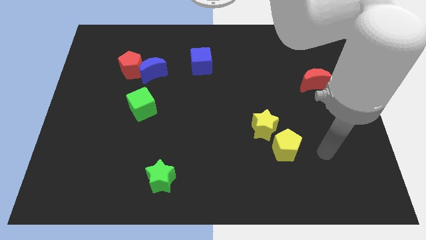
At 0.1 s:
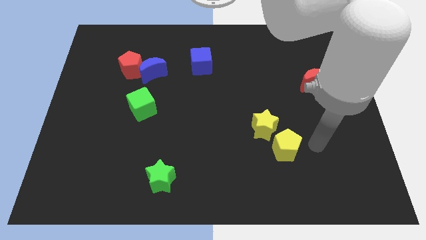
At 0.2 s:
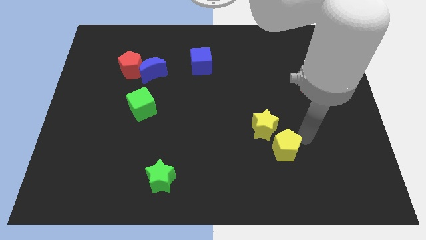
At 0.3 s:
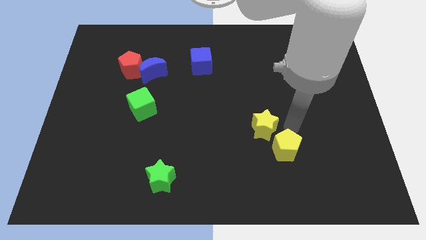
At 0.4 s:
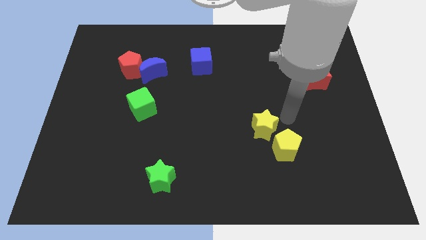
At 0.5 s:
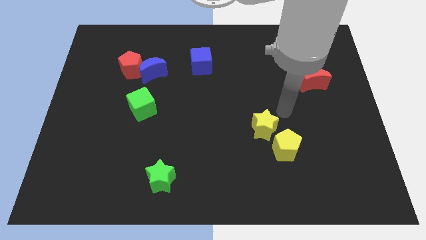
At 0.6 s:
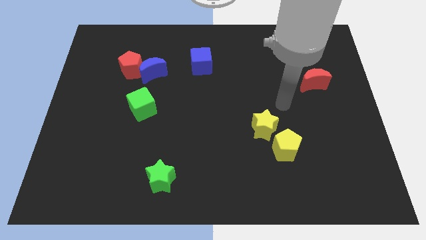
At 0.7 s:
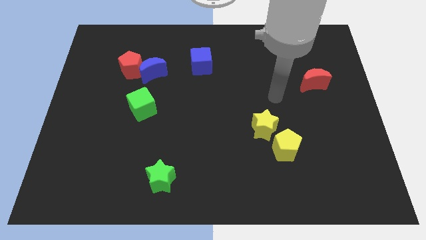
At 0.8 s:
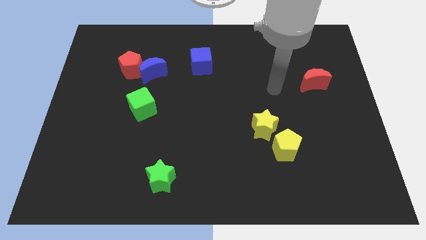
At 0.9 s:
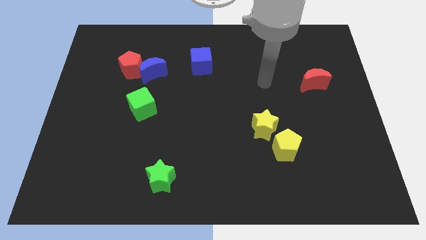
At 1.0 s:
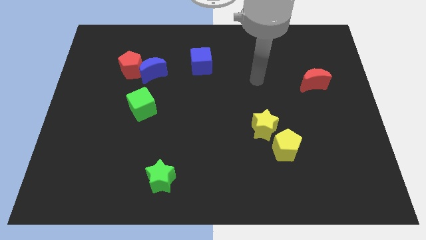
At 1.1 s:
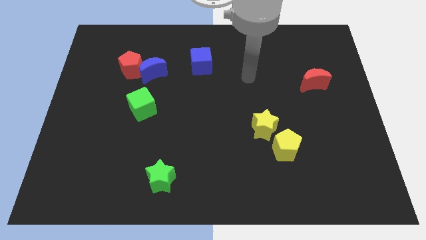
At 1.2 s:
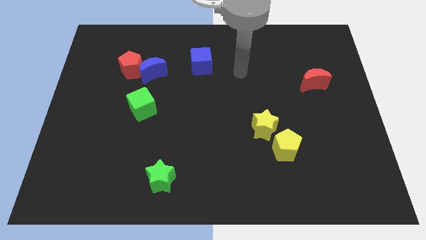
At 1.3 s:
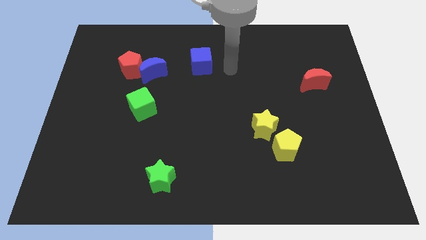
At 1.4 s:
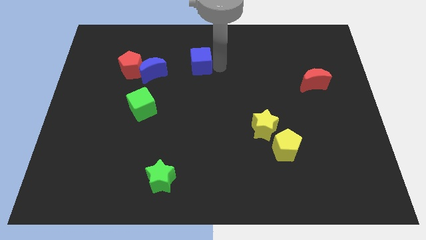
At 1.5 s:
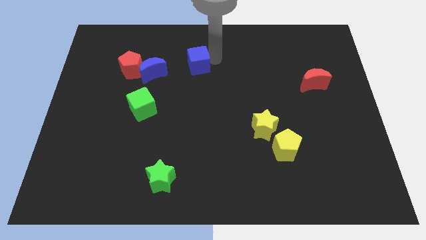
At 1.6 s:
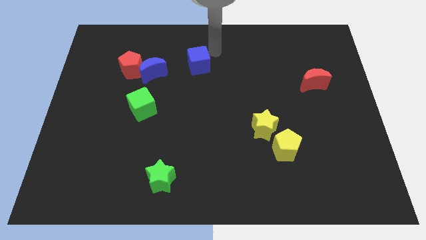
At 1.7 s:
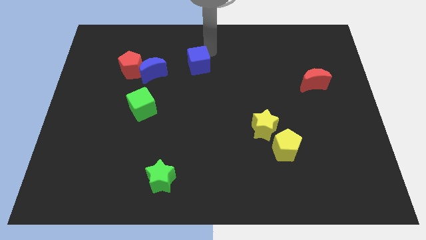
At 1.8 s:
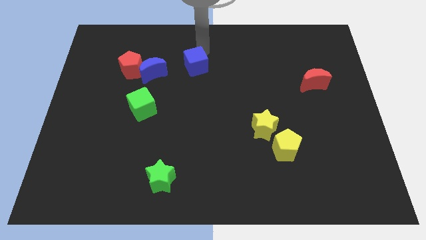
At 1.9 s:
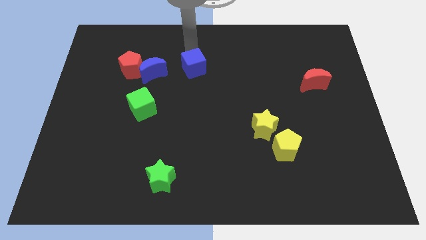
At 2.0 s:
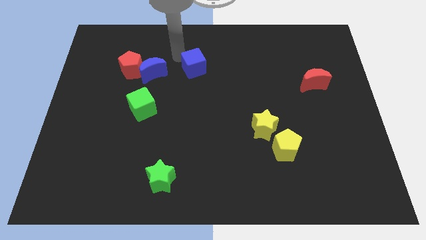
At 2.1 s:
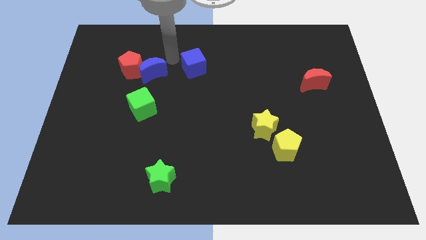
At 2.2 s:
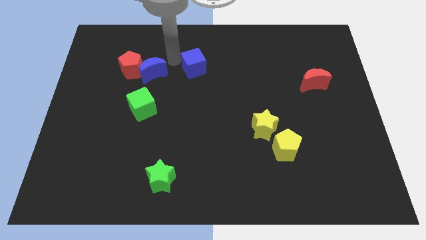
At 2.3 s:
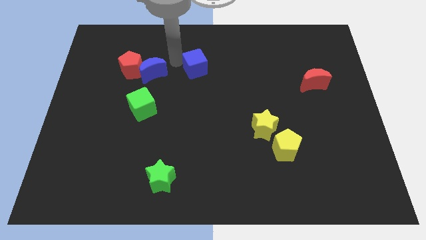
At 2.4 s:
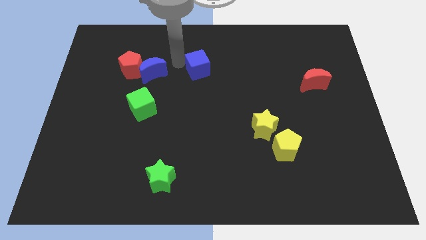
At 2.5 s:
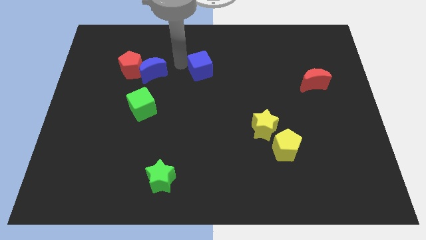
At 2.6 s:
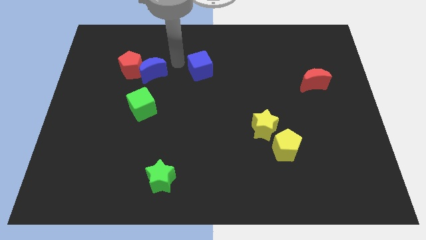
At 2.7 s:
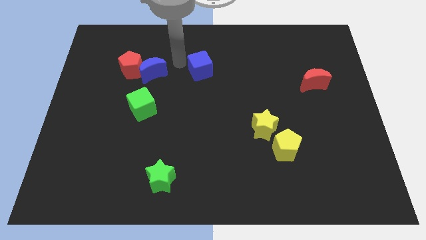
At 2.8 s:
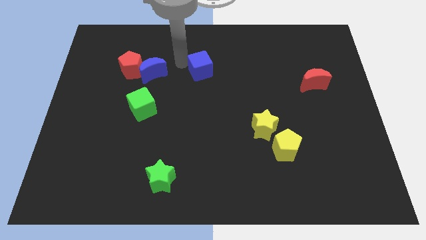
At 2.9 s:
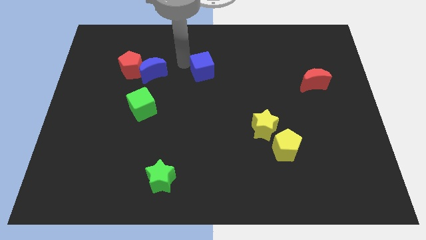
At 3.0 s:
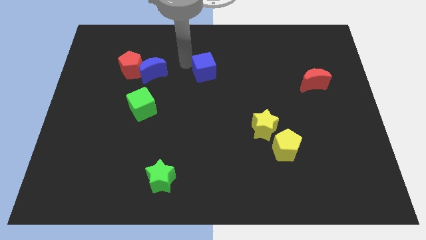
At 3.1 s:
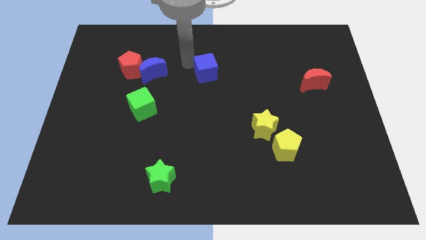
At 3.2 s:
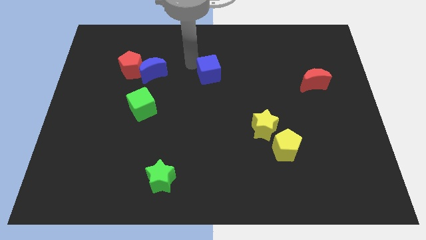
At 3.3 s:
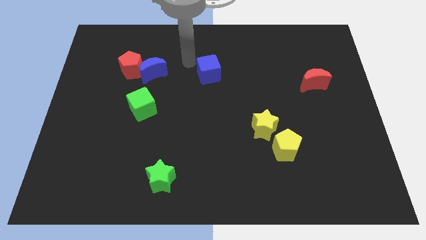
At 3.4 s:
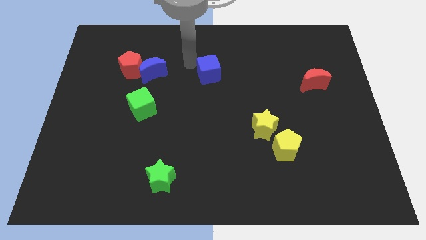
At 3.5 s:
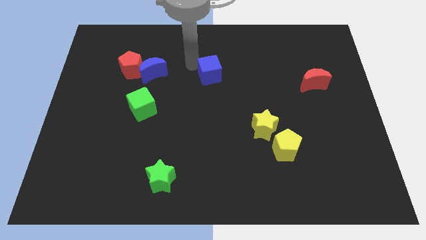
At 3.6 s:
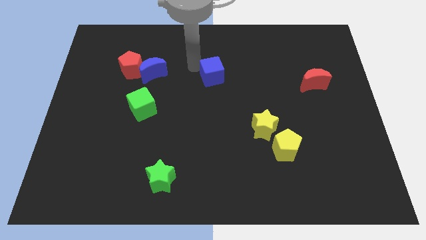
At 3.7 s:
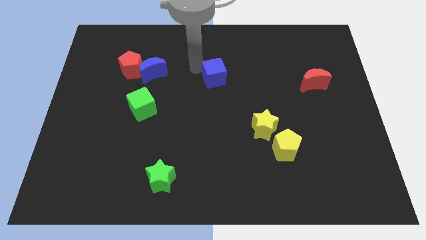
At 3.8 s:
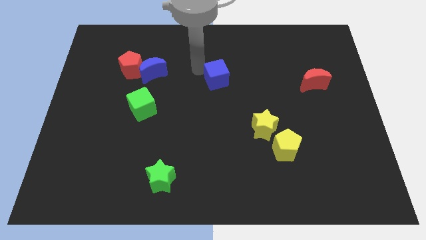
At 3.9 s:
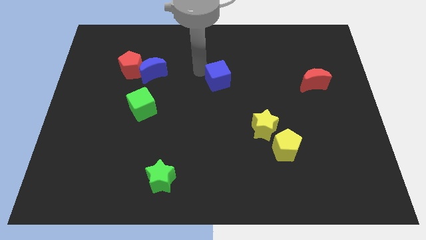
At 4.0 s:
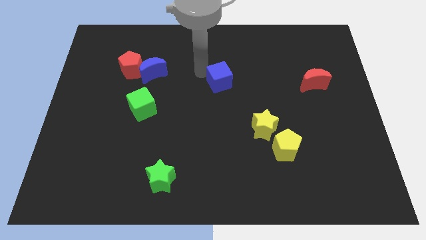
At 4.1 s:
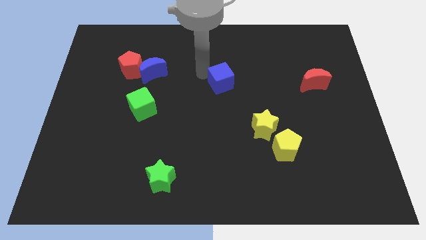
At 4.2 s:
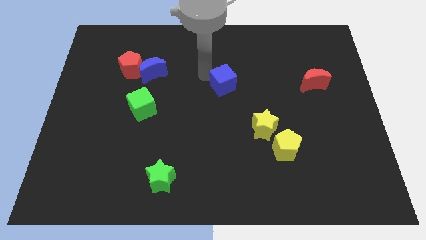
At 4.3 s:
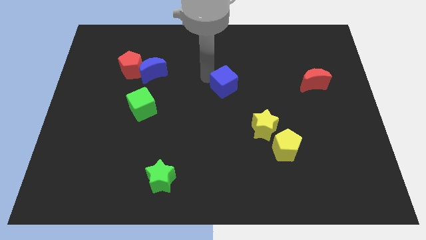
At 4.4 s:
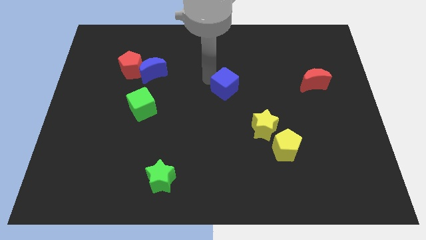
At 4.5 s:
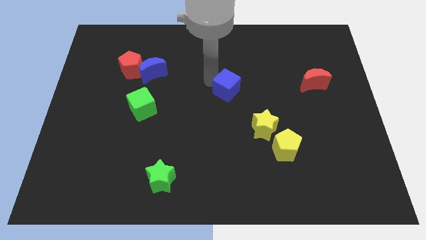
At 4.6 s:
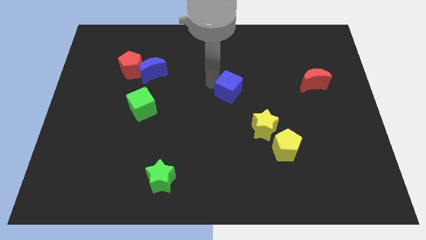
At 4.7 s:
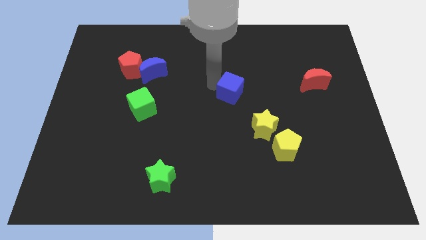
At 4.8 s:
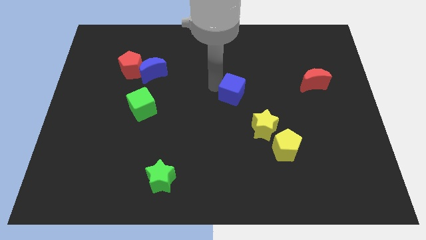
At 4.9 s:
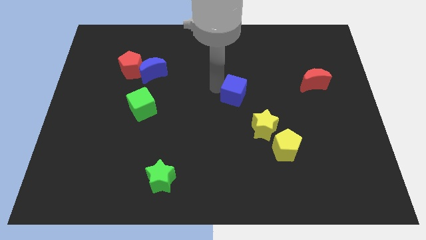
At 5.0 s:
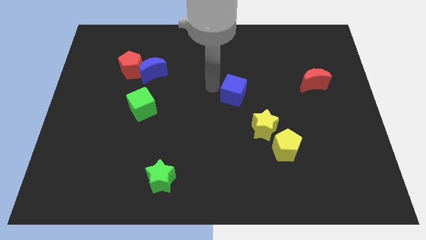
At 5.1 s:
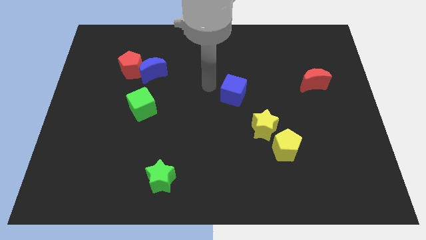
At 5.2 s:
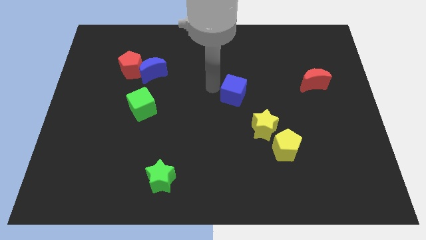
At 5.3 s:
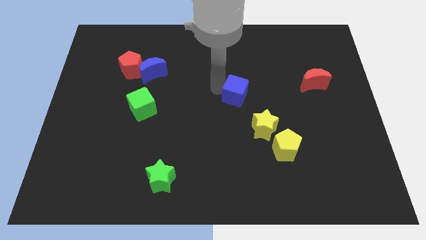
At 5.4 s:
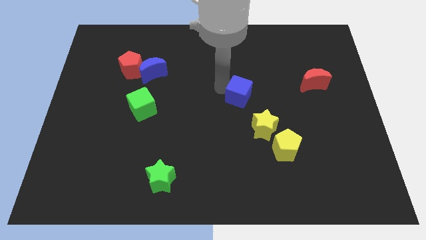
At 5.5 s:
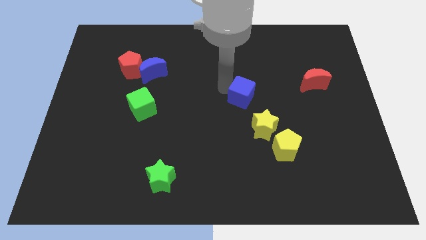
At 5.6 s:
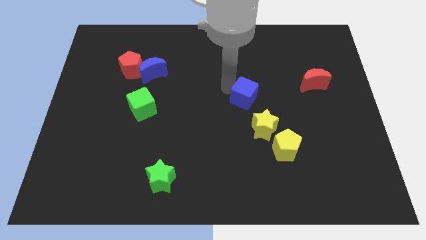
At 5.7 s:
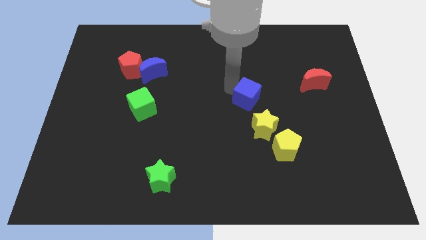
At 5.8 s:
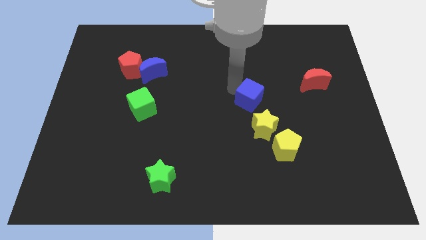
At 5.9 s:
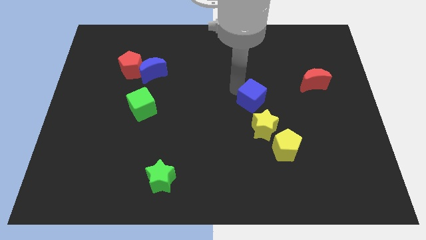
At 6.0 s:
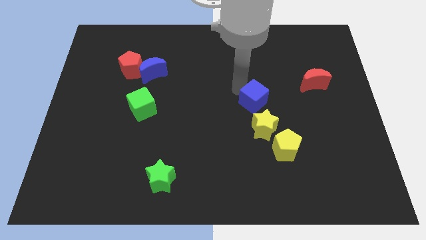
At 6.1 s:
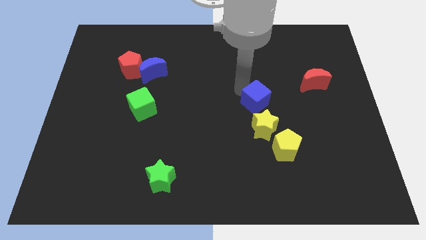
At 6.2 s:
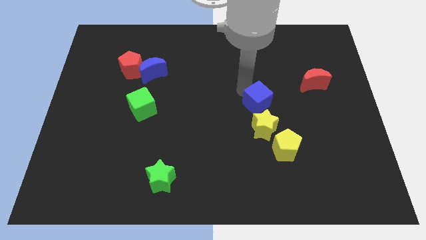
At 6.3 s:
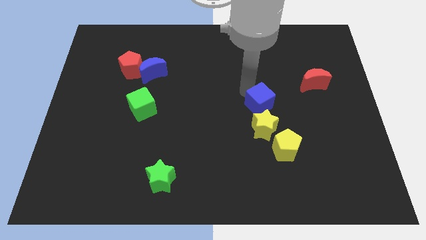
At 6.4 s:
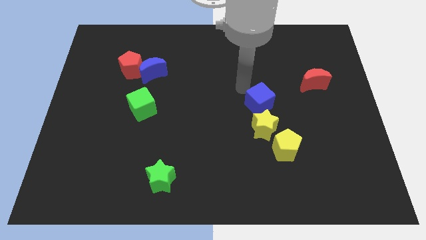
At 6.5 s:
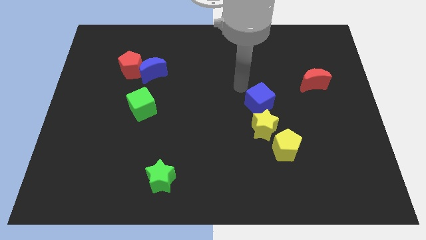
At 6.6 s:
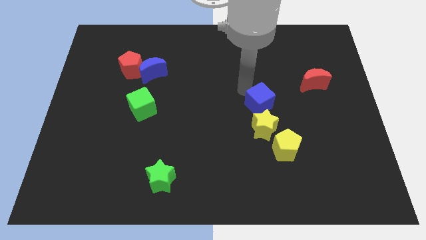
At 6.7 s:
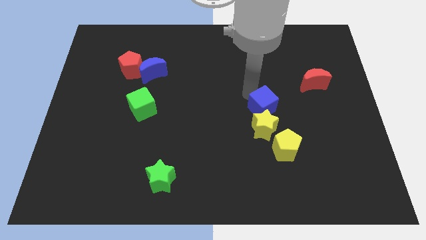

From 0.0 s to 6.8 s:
push the blue cube diagonally down and right

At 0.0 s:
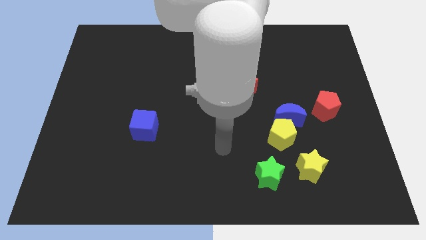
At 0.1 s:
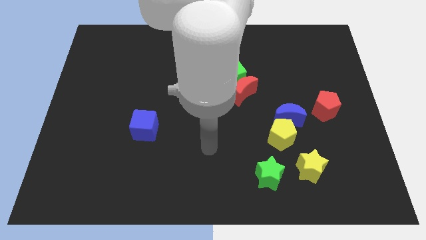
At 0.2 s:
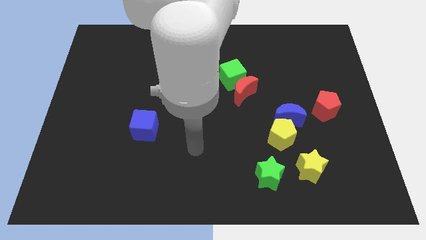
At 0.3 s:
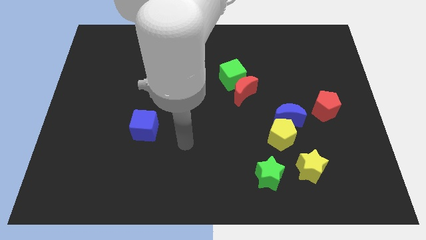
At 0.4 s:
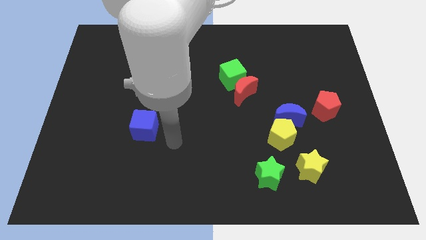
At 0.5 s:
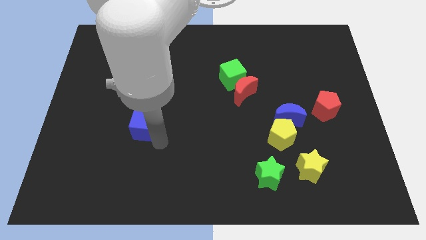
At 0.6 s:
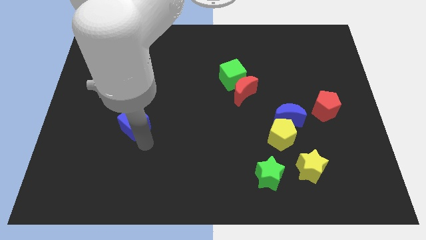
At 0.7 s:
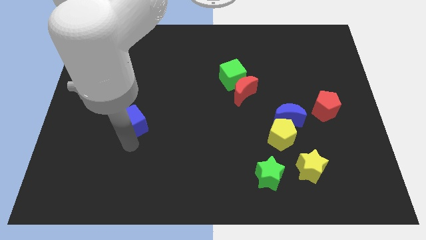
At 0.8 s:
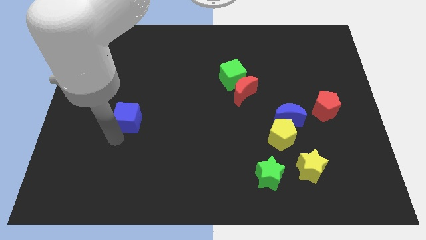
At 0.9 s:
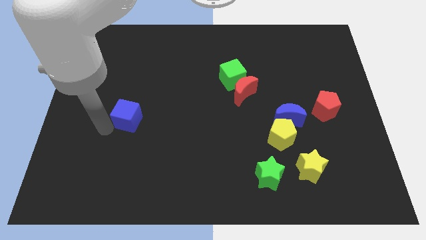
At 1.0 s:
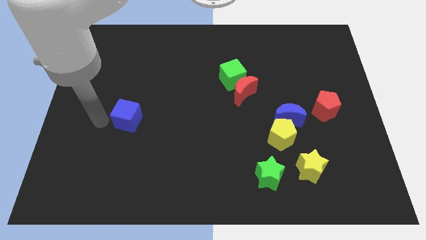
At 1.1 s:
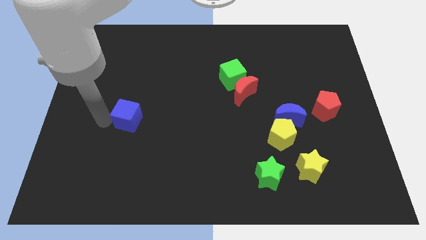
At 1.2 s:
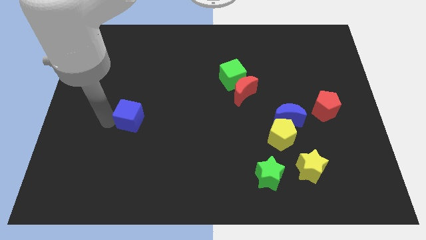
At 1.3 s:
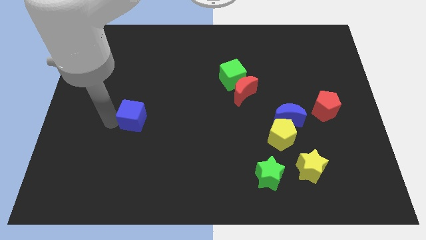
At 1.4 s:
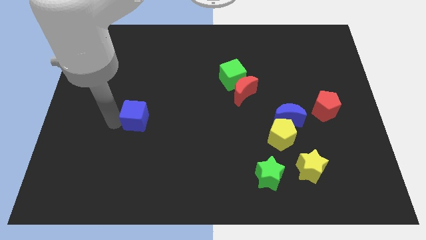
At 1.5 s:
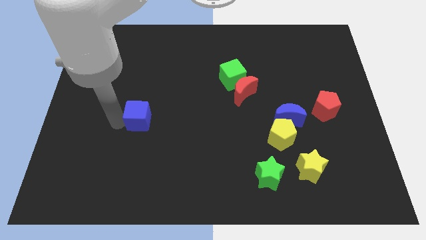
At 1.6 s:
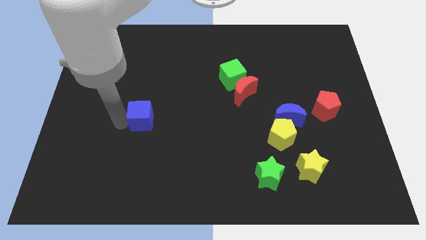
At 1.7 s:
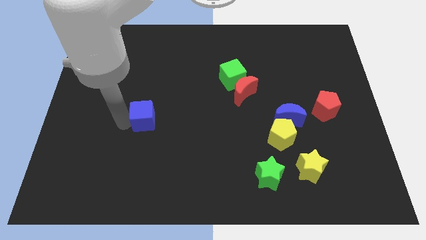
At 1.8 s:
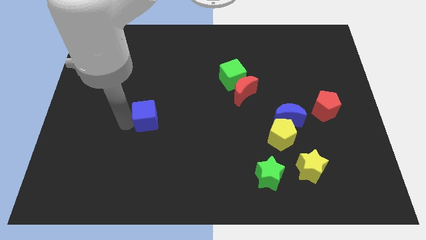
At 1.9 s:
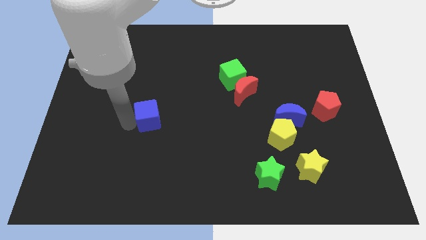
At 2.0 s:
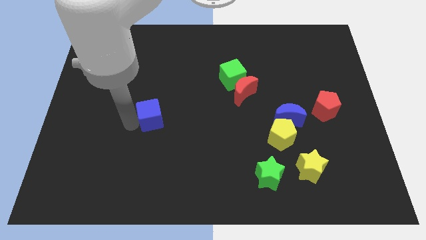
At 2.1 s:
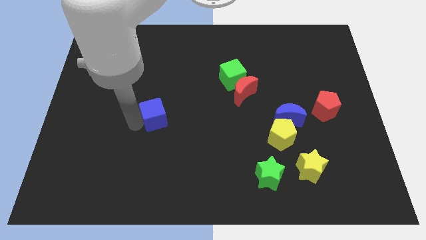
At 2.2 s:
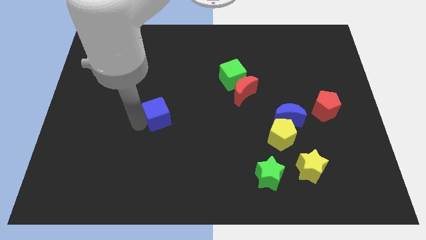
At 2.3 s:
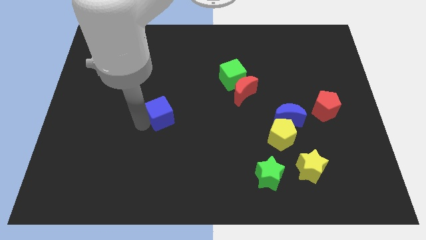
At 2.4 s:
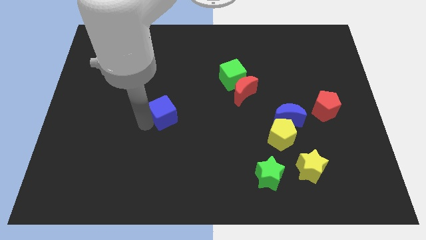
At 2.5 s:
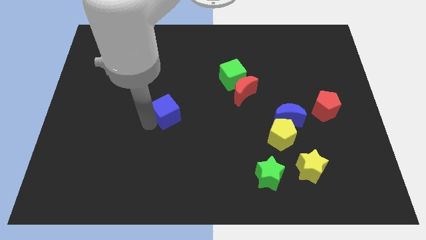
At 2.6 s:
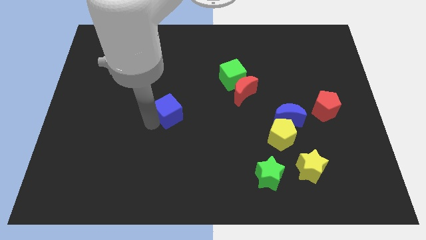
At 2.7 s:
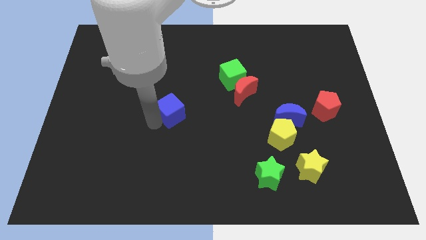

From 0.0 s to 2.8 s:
move the blue cube diagonally upwards and to the right a little bit
